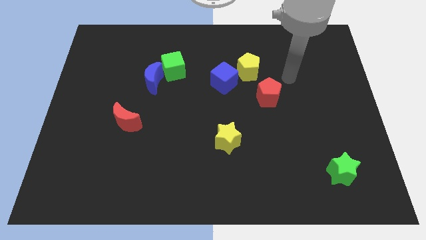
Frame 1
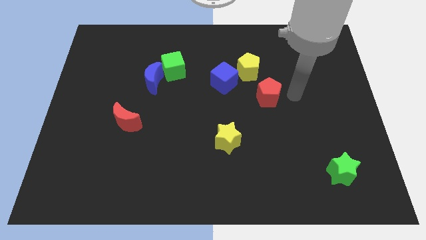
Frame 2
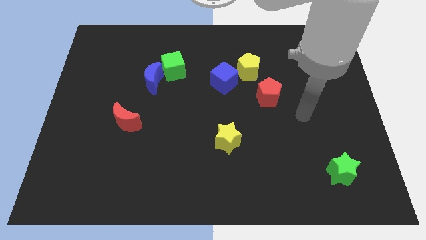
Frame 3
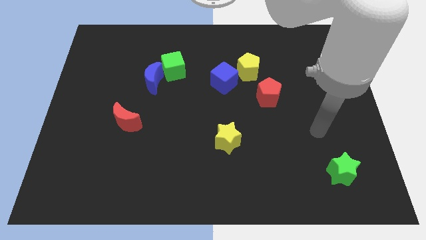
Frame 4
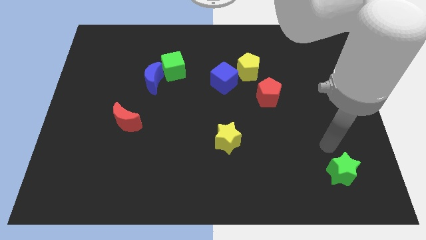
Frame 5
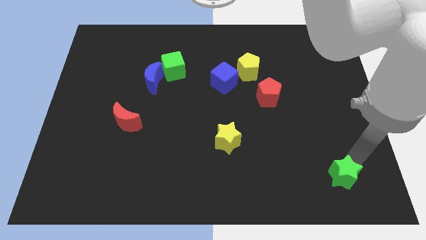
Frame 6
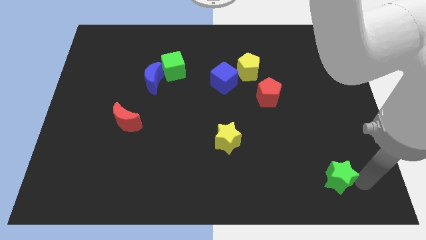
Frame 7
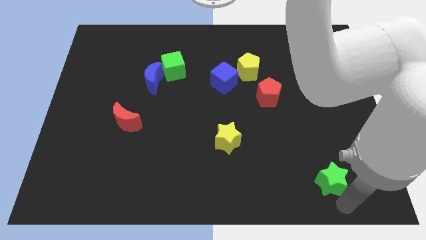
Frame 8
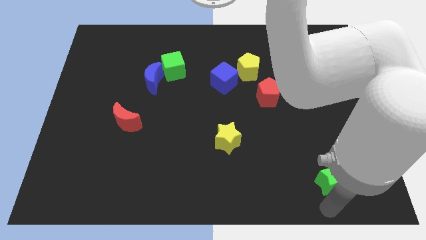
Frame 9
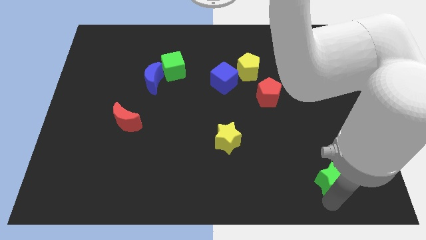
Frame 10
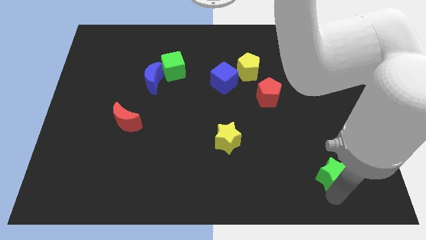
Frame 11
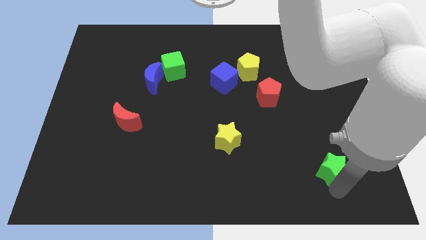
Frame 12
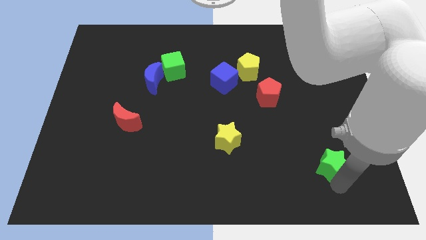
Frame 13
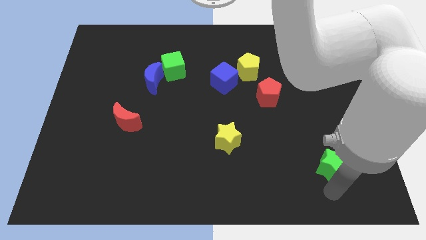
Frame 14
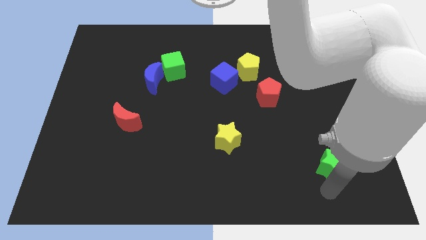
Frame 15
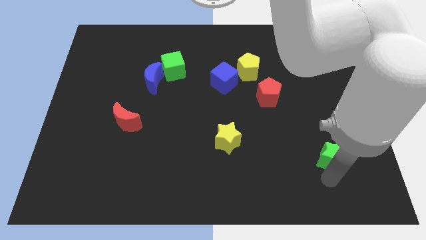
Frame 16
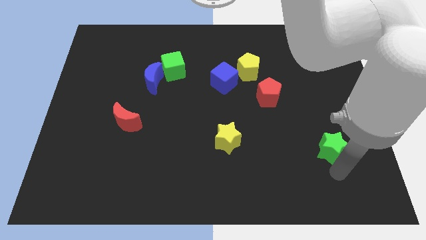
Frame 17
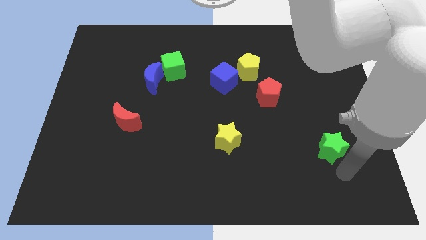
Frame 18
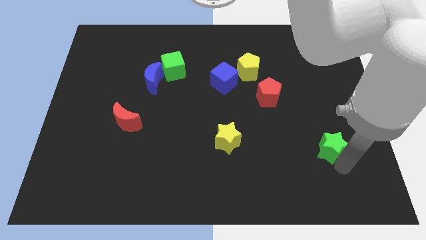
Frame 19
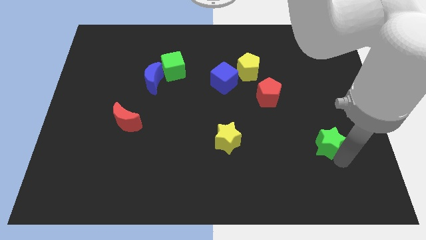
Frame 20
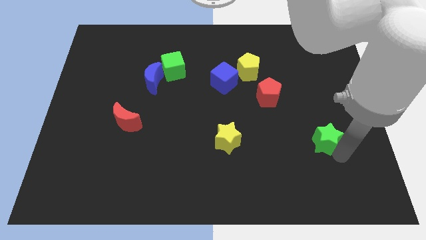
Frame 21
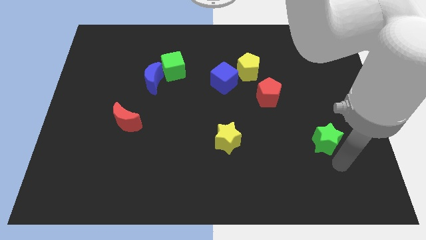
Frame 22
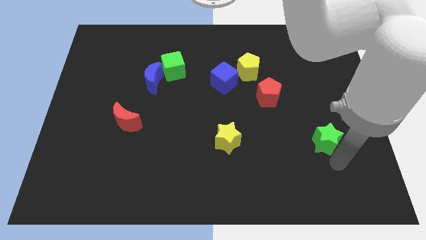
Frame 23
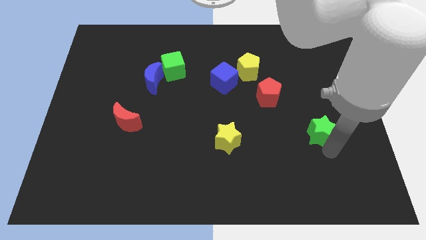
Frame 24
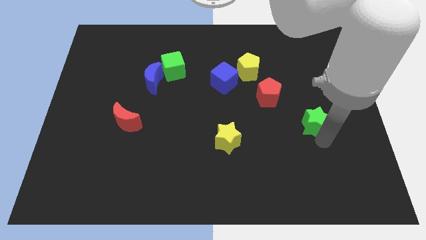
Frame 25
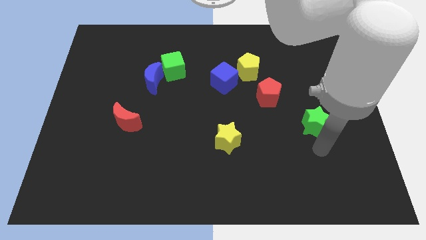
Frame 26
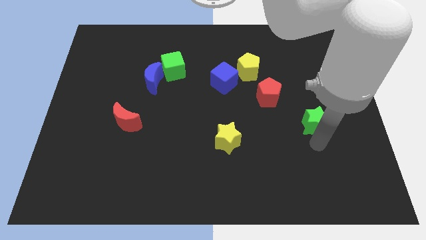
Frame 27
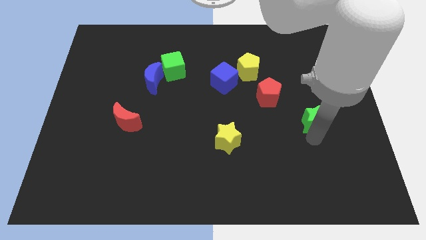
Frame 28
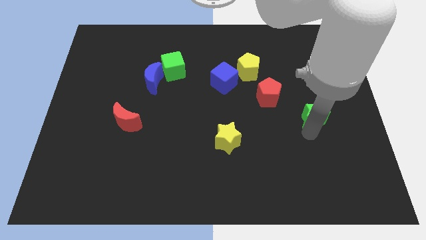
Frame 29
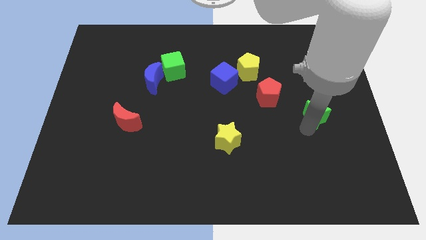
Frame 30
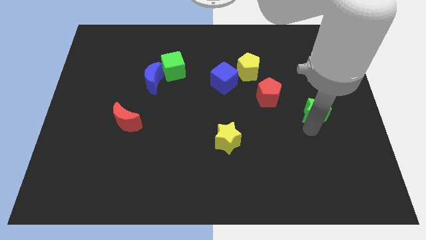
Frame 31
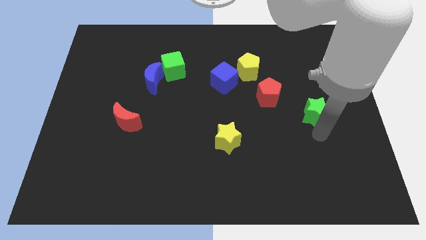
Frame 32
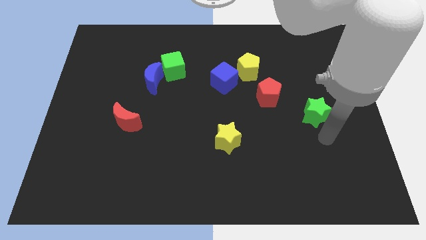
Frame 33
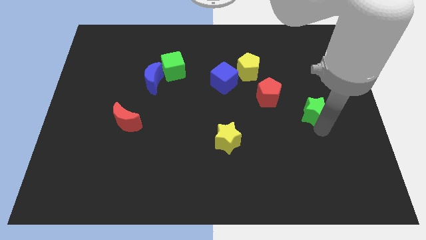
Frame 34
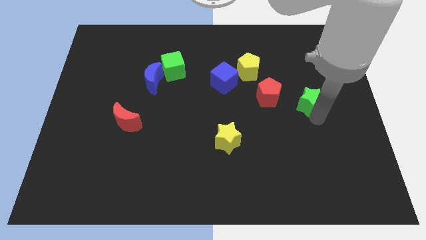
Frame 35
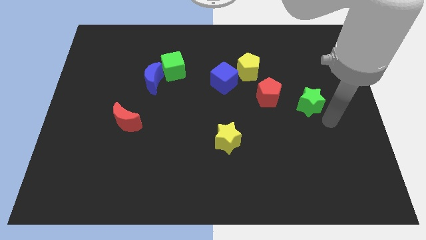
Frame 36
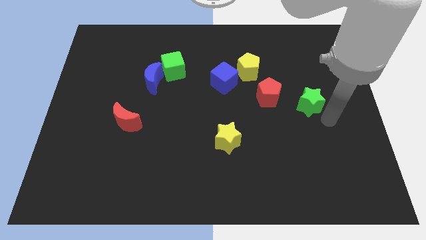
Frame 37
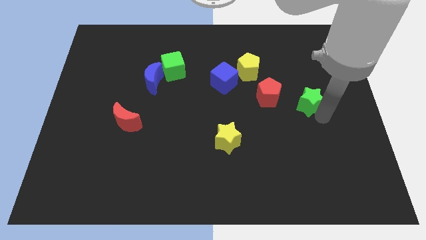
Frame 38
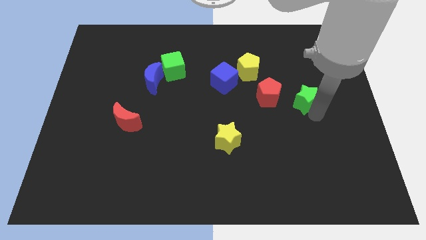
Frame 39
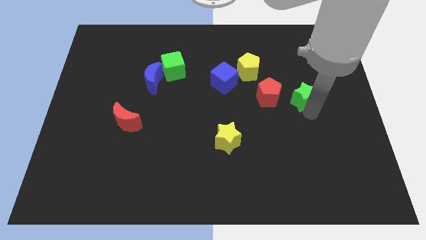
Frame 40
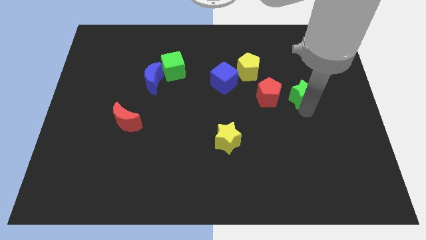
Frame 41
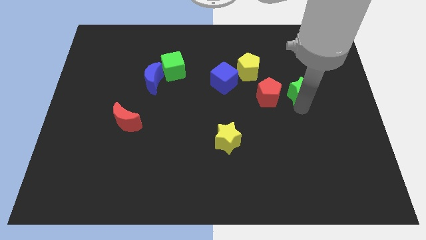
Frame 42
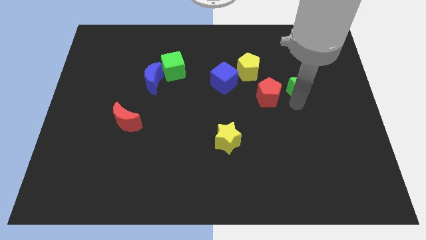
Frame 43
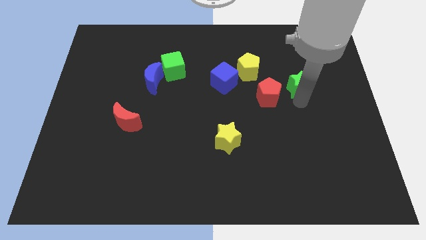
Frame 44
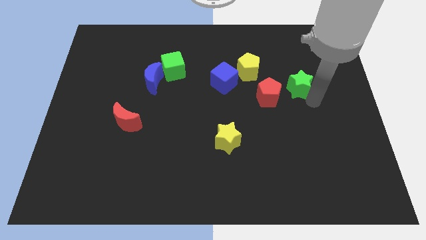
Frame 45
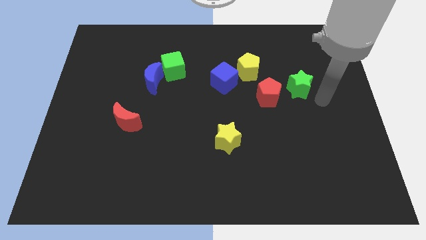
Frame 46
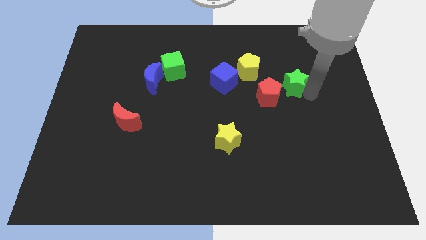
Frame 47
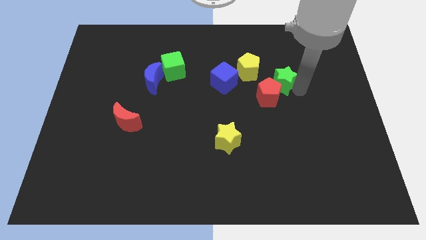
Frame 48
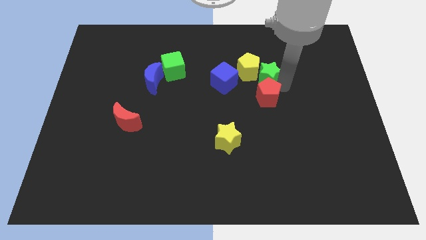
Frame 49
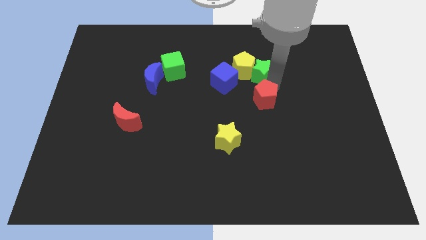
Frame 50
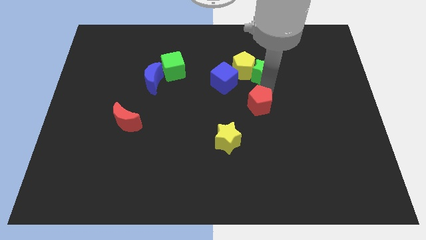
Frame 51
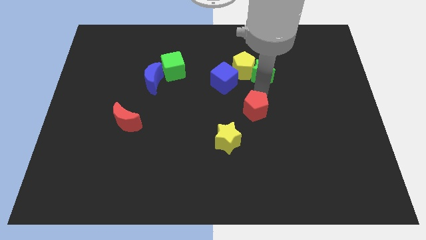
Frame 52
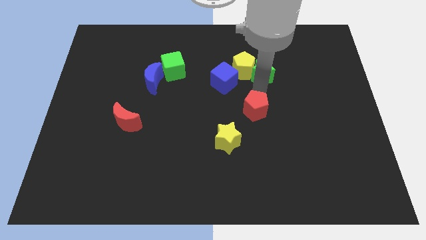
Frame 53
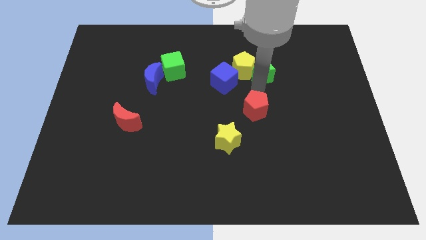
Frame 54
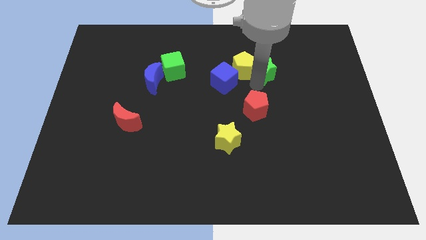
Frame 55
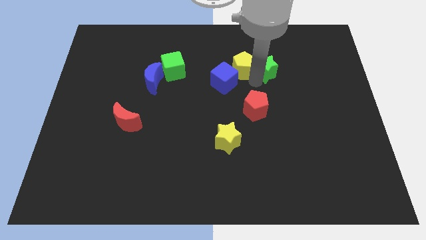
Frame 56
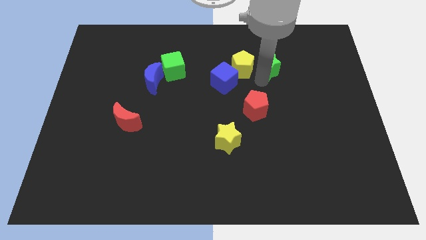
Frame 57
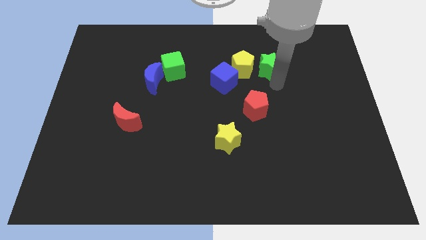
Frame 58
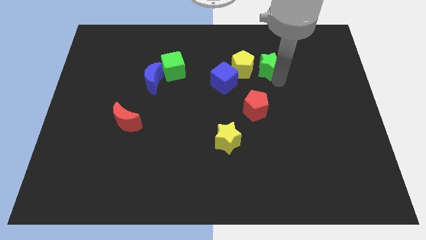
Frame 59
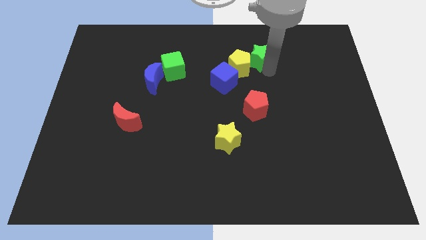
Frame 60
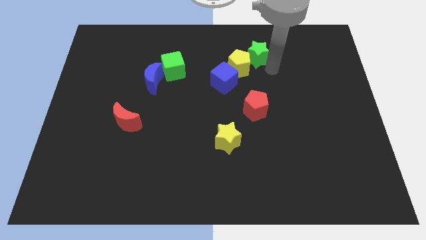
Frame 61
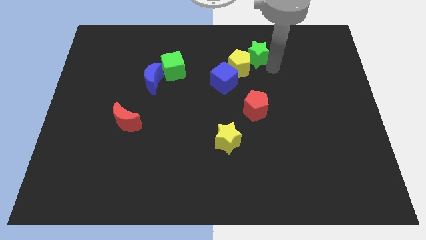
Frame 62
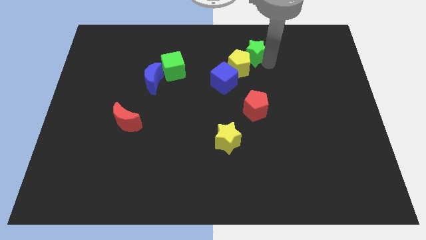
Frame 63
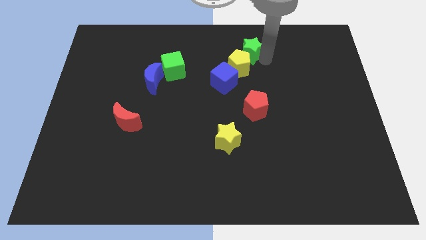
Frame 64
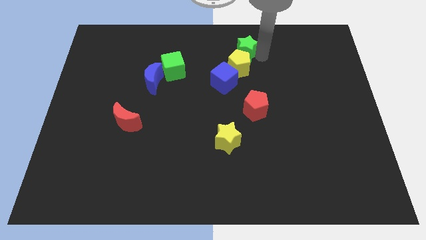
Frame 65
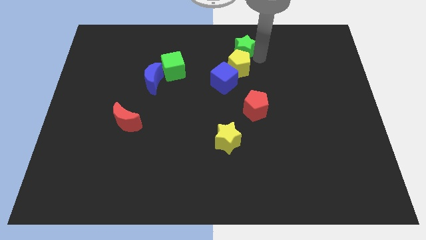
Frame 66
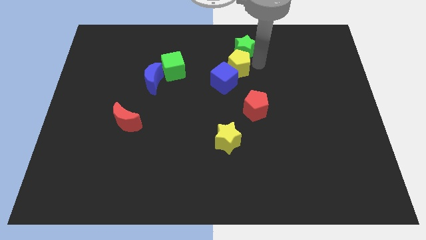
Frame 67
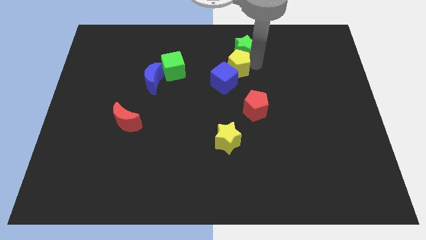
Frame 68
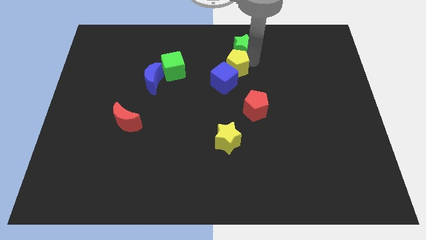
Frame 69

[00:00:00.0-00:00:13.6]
move the green star to the towards your base
